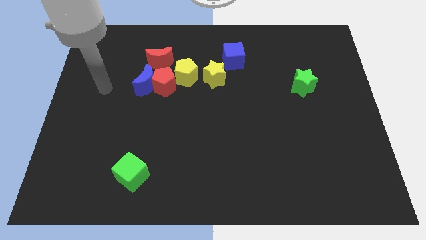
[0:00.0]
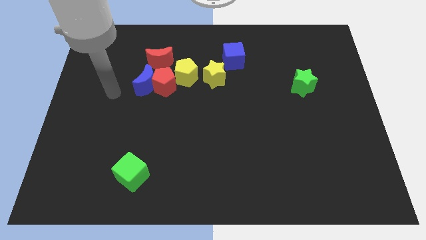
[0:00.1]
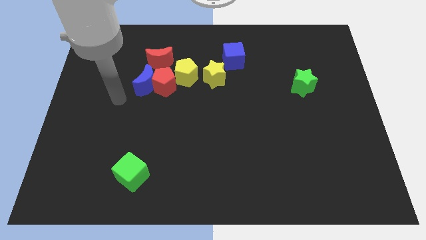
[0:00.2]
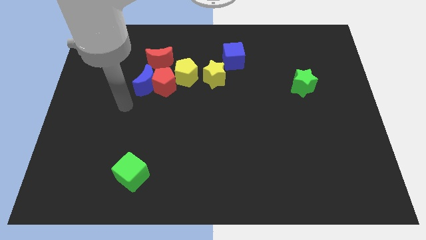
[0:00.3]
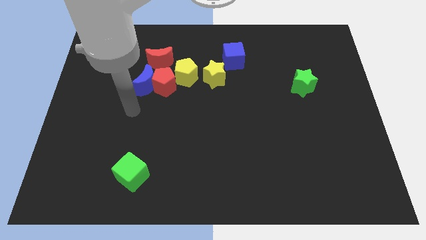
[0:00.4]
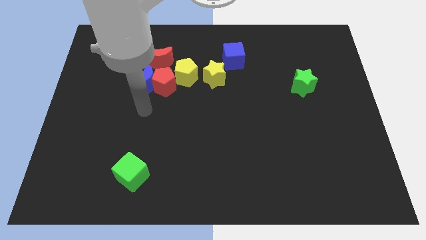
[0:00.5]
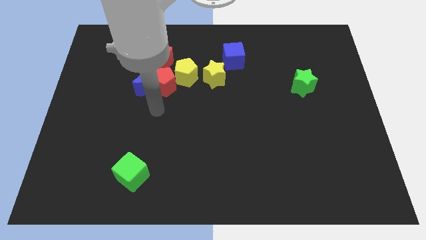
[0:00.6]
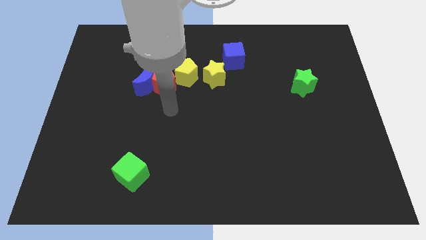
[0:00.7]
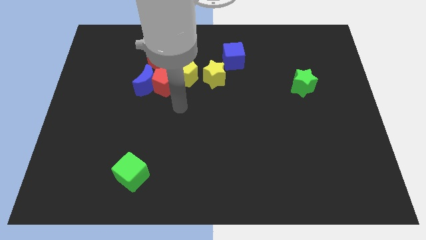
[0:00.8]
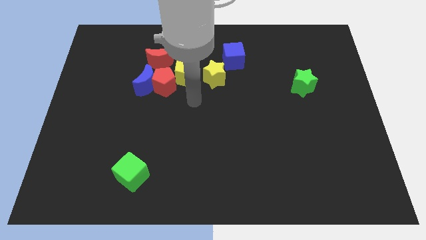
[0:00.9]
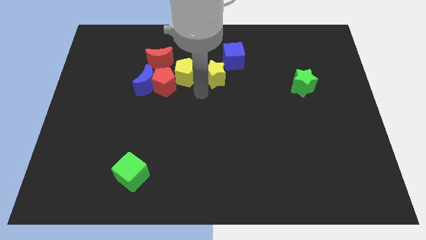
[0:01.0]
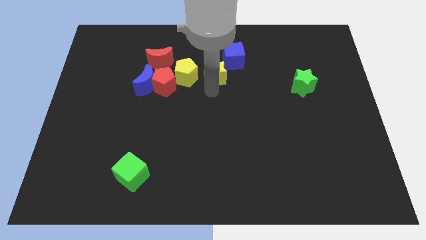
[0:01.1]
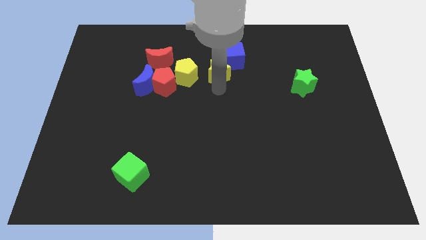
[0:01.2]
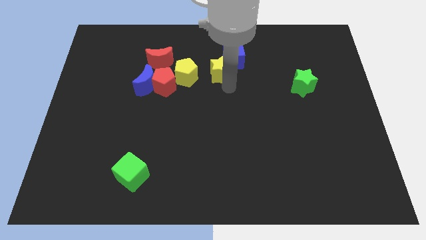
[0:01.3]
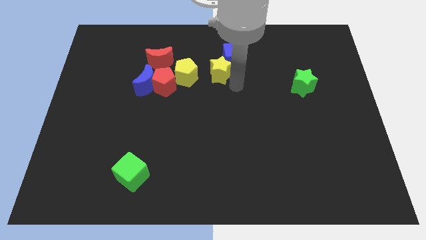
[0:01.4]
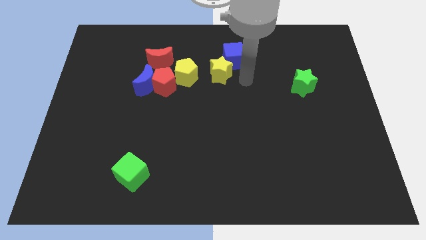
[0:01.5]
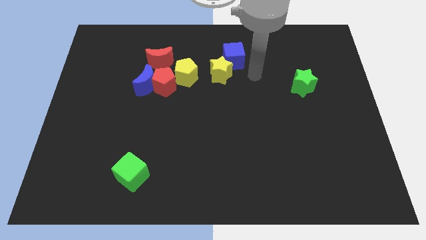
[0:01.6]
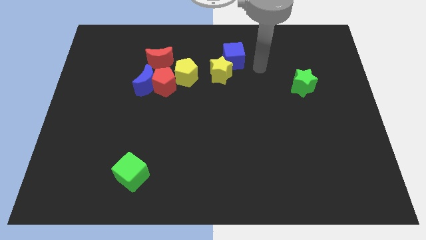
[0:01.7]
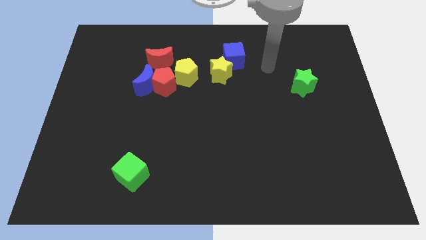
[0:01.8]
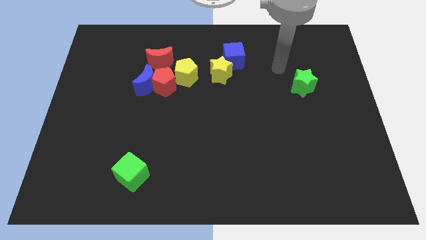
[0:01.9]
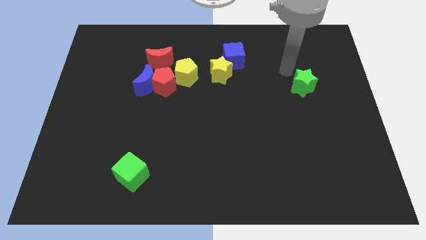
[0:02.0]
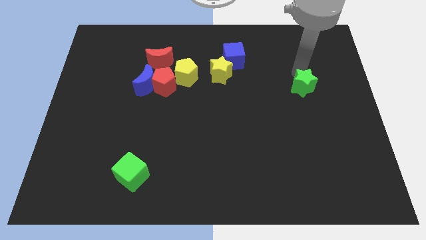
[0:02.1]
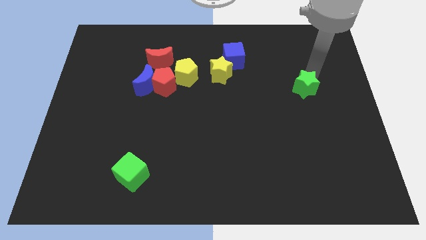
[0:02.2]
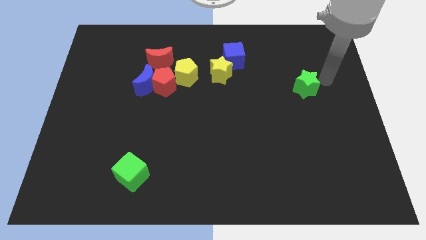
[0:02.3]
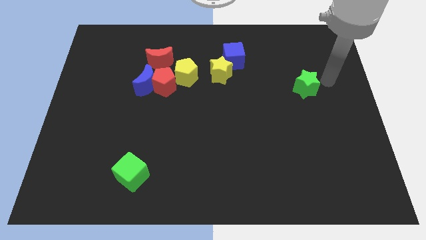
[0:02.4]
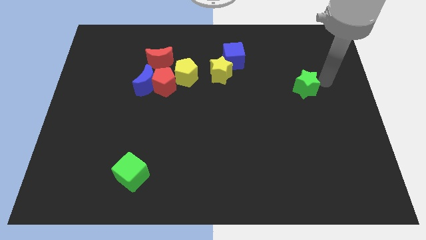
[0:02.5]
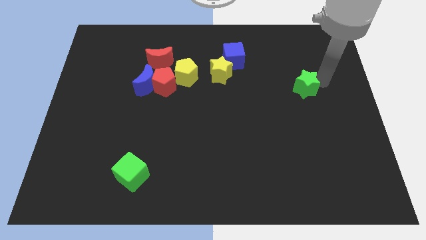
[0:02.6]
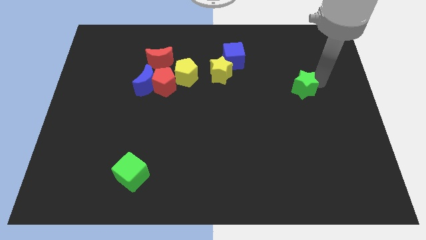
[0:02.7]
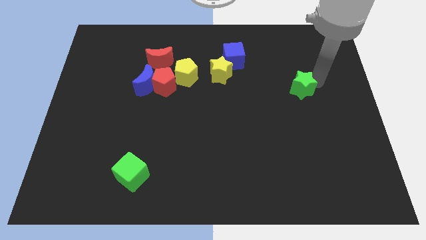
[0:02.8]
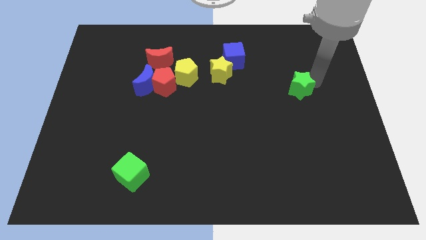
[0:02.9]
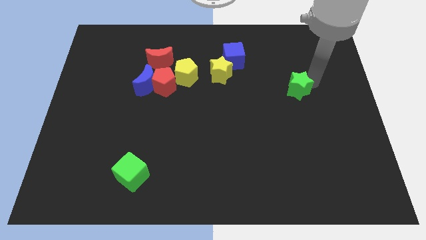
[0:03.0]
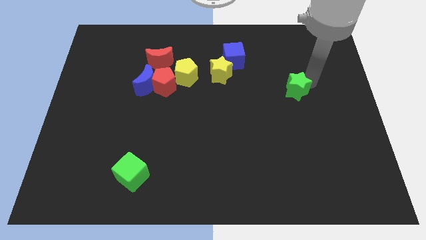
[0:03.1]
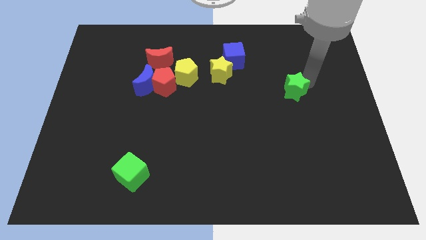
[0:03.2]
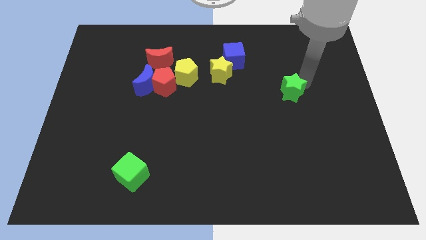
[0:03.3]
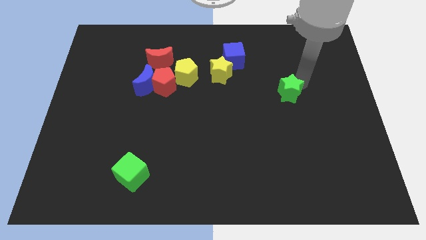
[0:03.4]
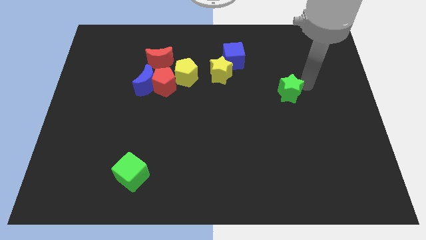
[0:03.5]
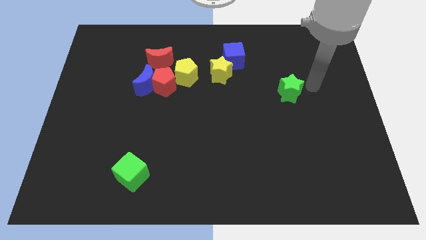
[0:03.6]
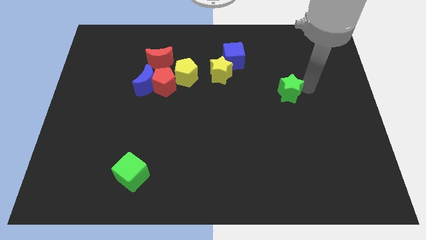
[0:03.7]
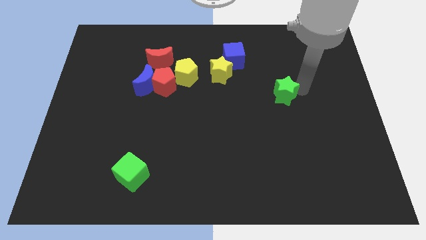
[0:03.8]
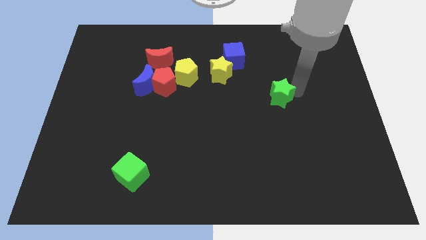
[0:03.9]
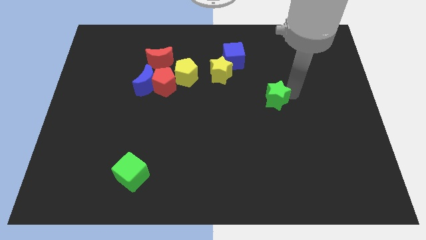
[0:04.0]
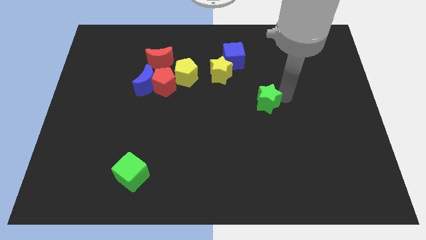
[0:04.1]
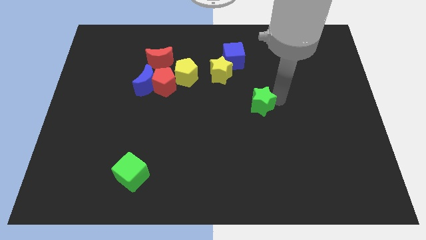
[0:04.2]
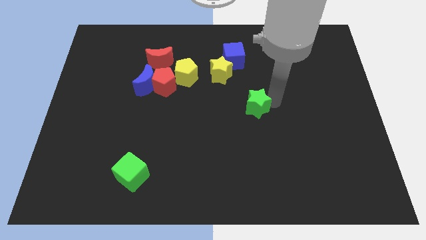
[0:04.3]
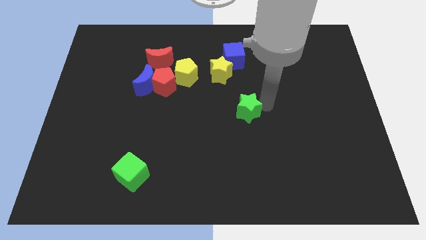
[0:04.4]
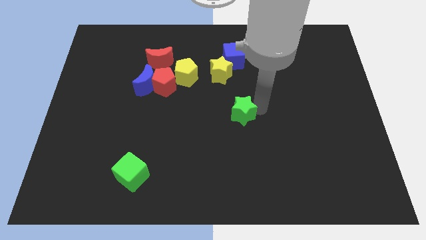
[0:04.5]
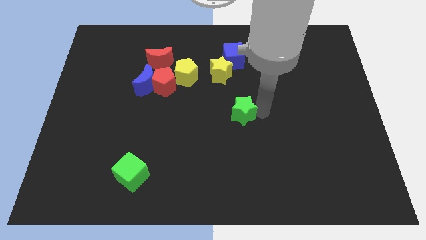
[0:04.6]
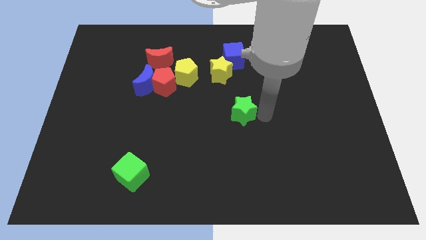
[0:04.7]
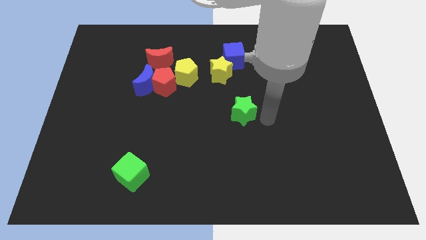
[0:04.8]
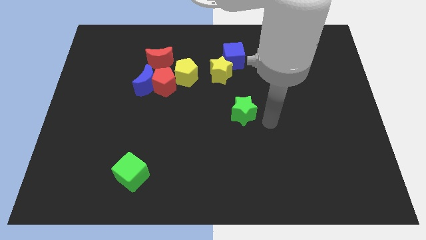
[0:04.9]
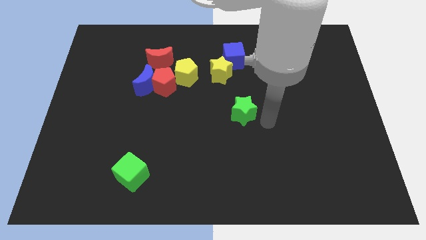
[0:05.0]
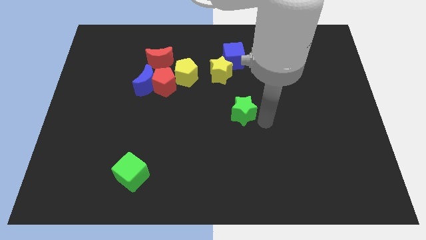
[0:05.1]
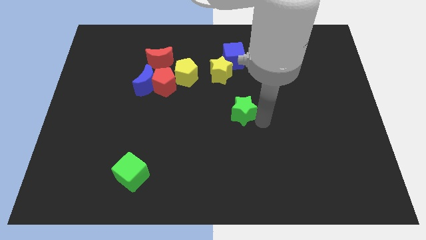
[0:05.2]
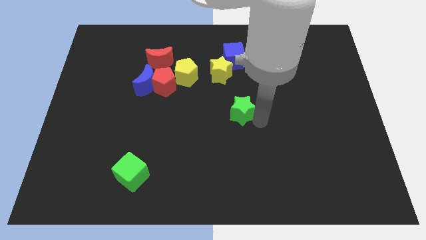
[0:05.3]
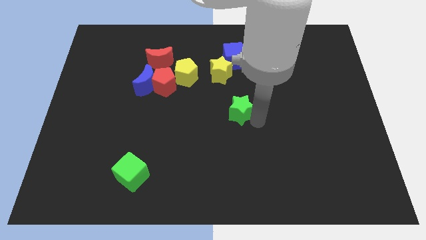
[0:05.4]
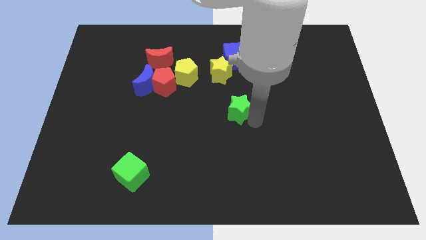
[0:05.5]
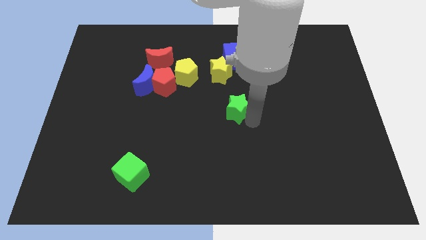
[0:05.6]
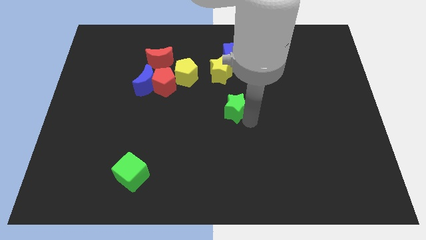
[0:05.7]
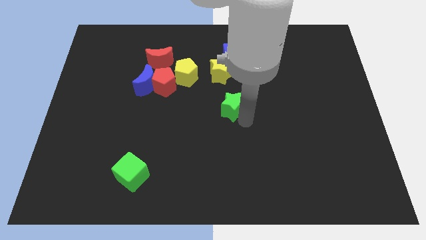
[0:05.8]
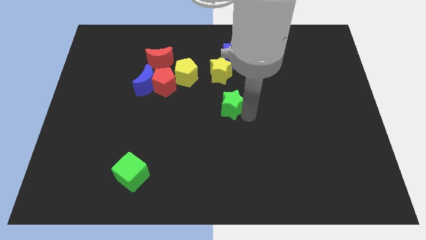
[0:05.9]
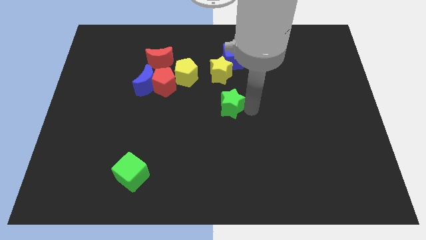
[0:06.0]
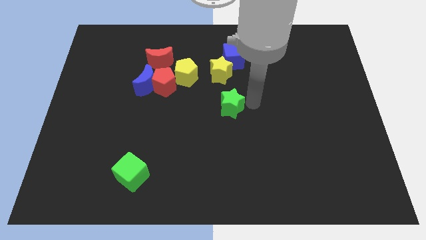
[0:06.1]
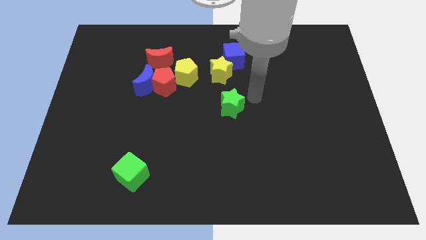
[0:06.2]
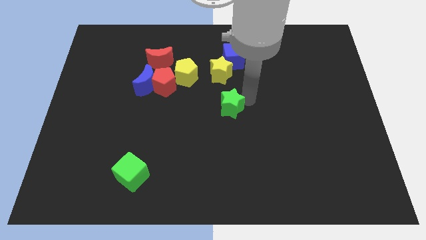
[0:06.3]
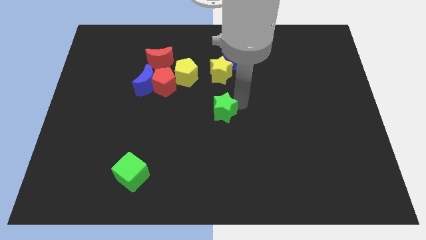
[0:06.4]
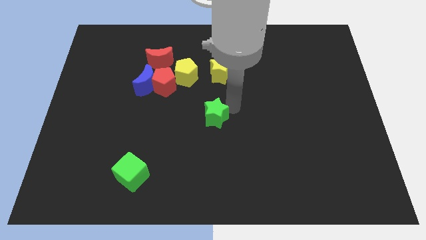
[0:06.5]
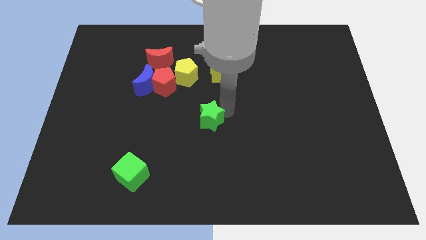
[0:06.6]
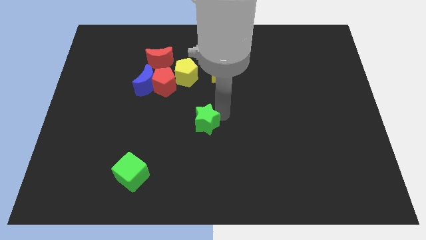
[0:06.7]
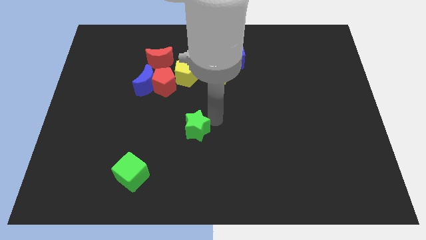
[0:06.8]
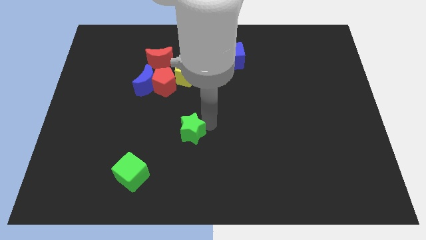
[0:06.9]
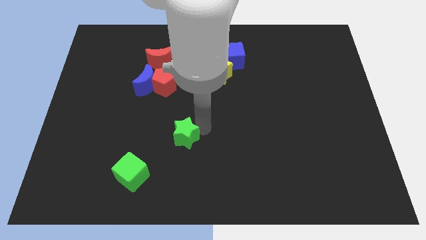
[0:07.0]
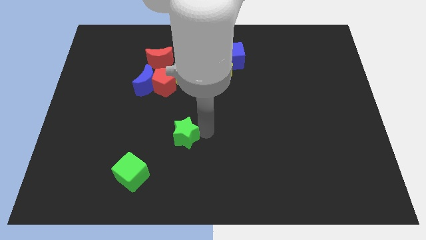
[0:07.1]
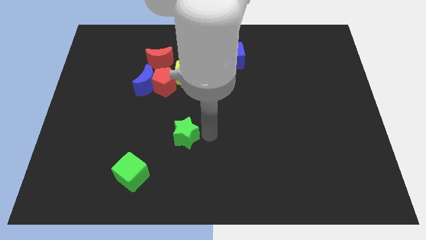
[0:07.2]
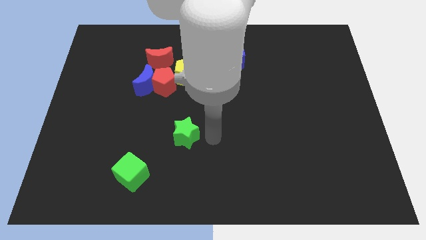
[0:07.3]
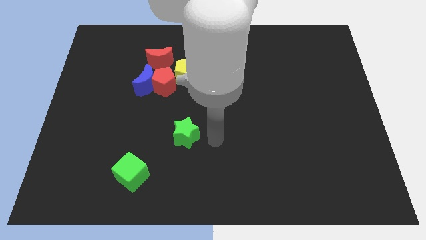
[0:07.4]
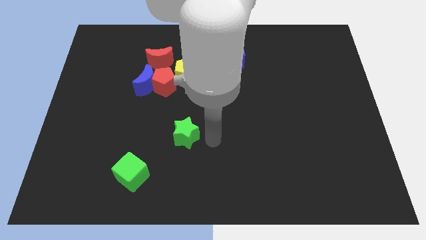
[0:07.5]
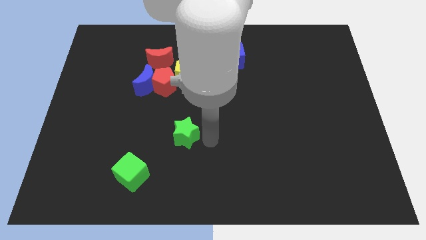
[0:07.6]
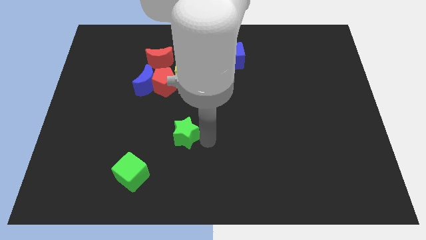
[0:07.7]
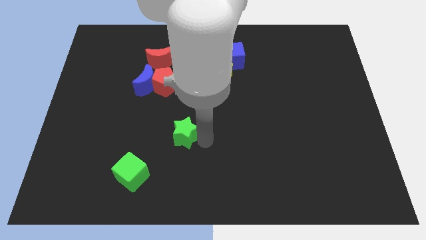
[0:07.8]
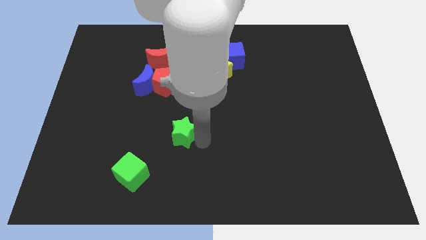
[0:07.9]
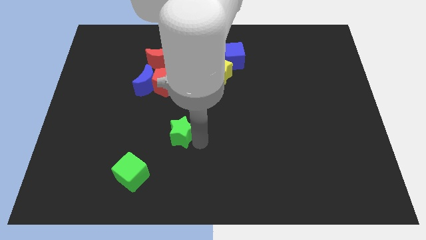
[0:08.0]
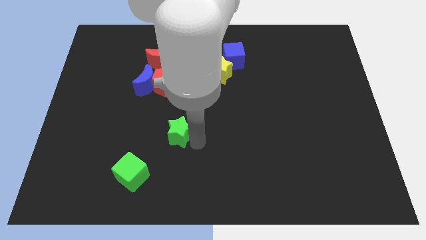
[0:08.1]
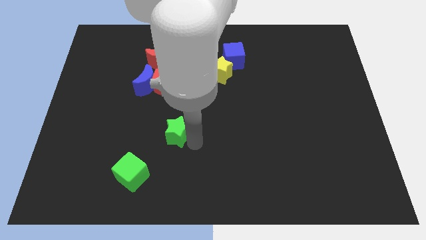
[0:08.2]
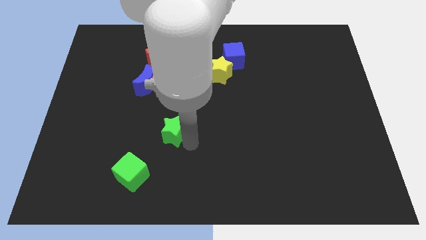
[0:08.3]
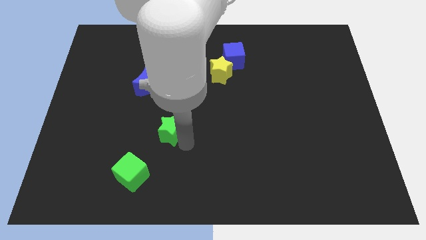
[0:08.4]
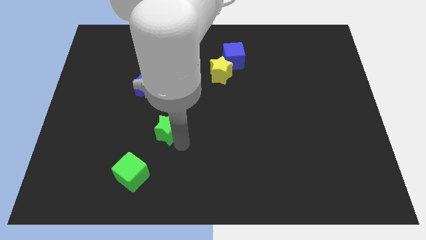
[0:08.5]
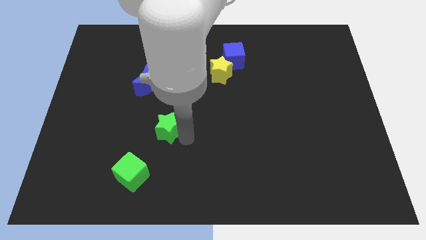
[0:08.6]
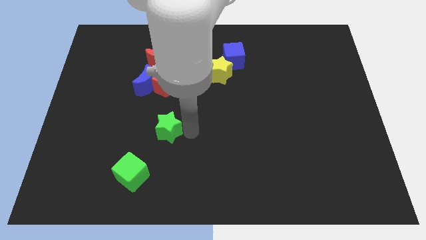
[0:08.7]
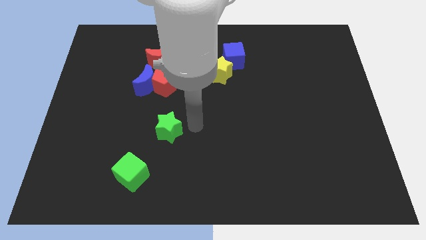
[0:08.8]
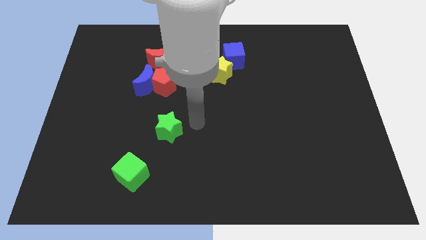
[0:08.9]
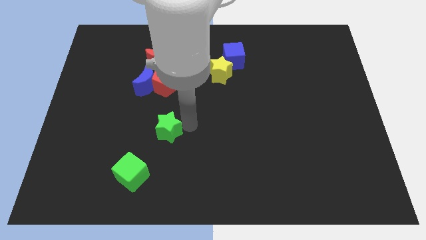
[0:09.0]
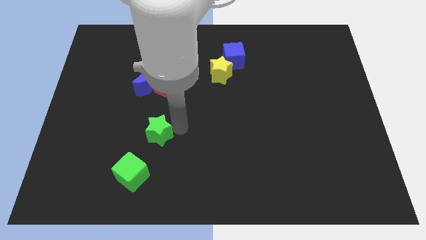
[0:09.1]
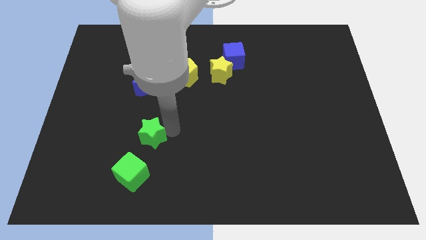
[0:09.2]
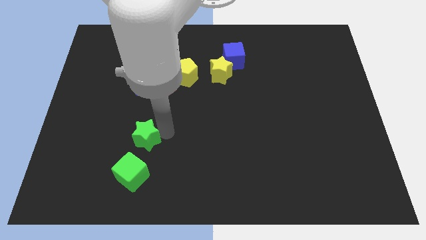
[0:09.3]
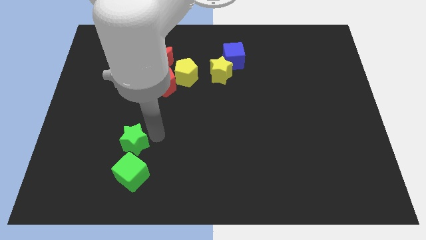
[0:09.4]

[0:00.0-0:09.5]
move the green star to the top left of the green cube
